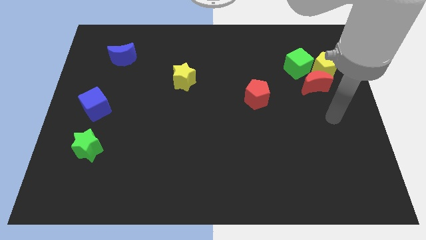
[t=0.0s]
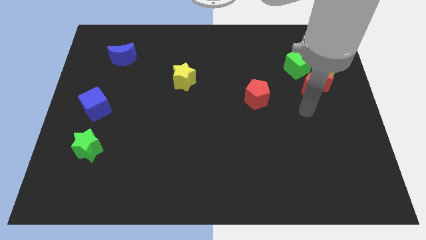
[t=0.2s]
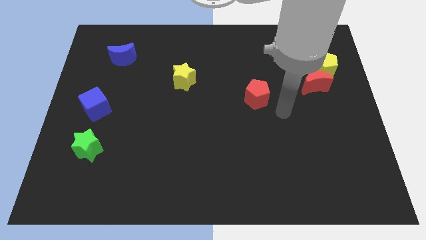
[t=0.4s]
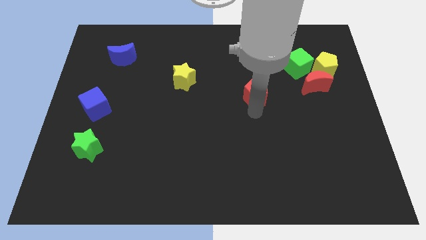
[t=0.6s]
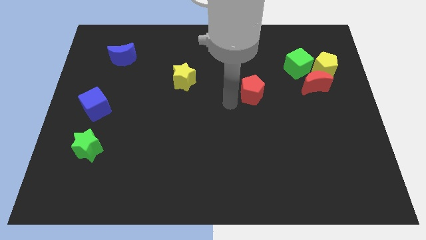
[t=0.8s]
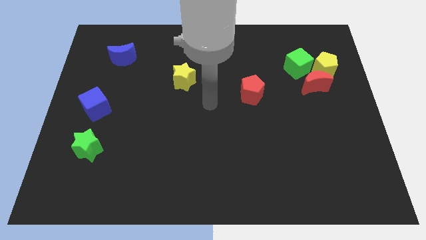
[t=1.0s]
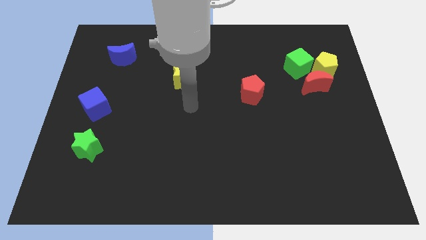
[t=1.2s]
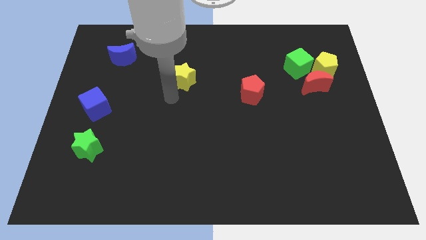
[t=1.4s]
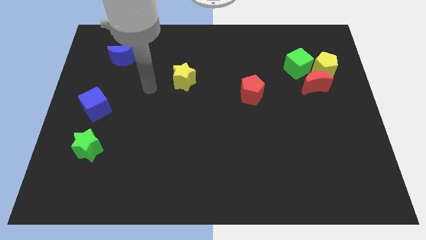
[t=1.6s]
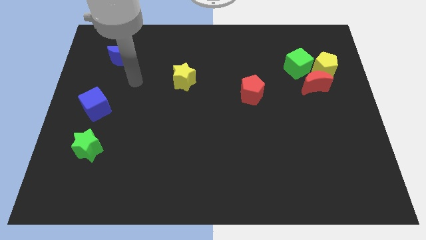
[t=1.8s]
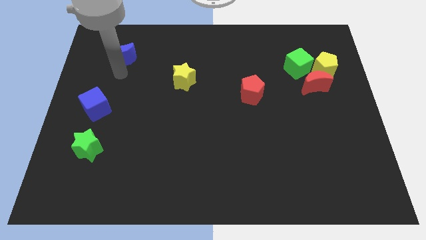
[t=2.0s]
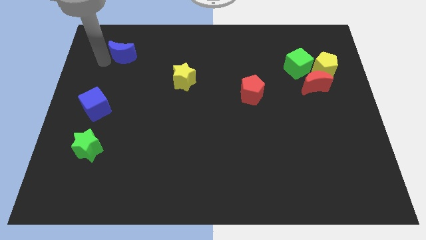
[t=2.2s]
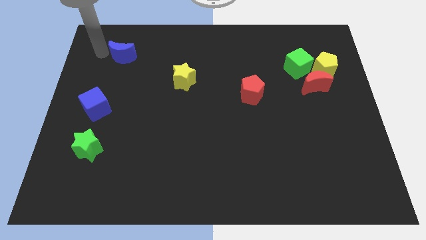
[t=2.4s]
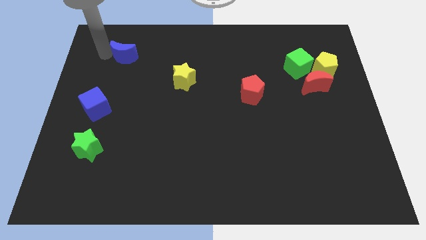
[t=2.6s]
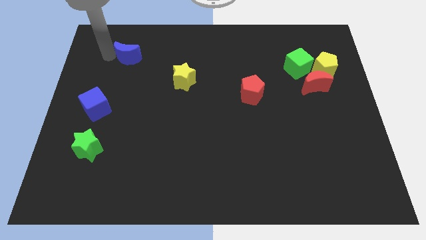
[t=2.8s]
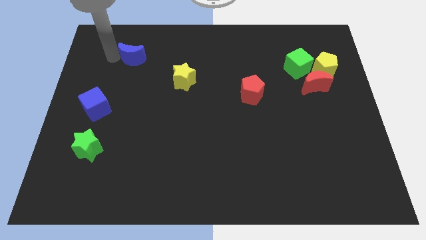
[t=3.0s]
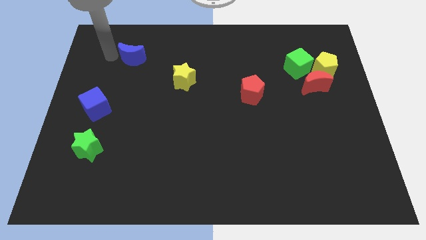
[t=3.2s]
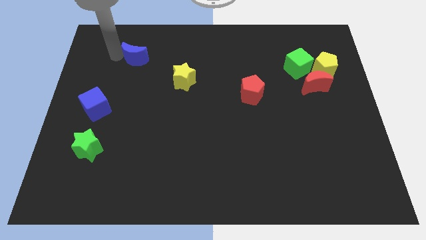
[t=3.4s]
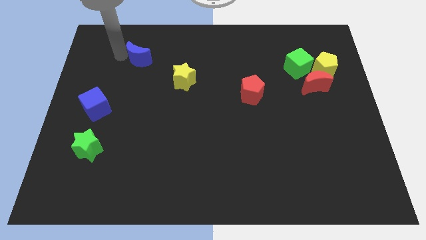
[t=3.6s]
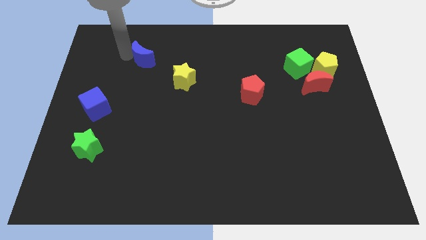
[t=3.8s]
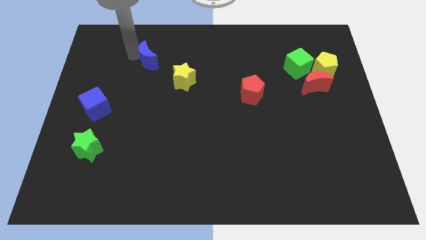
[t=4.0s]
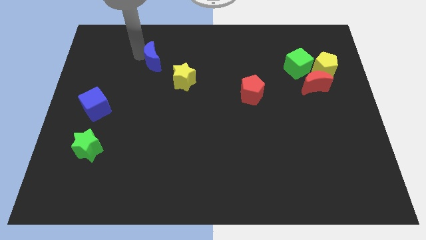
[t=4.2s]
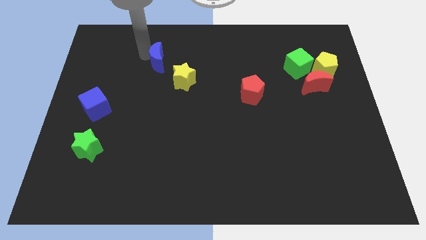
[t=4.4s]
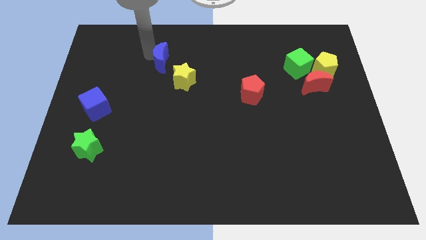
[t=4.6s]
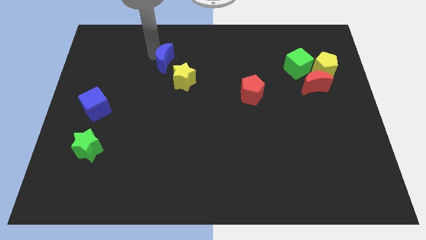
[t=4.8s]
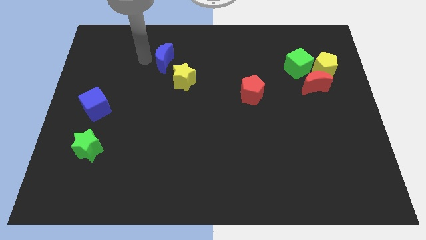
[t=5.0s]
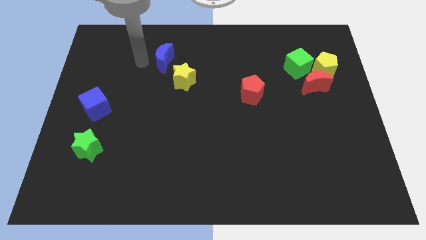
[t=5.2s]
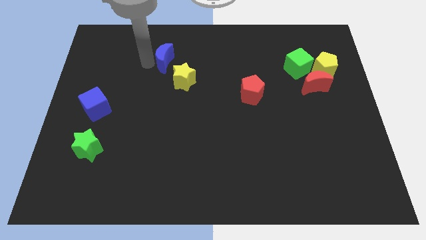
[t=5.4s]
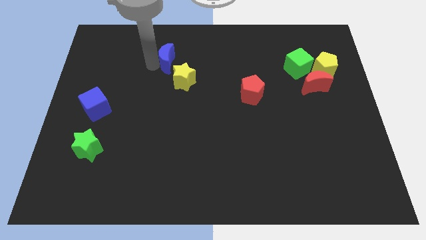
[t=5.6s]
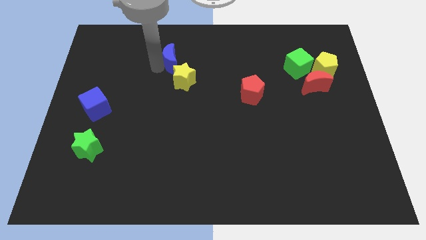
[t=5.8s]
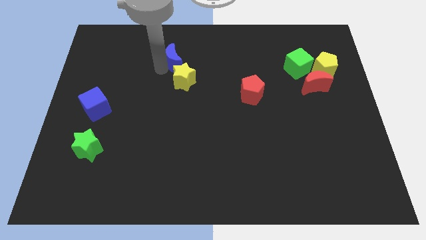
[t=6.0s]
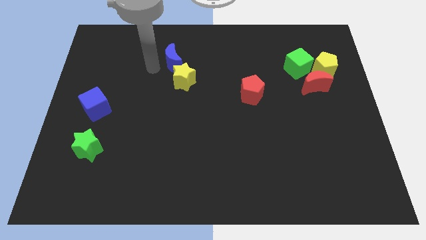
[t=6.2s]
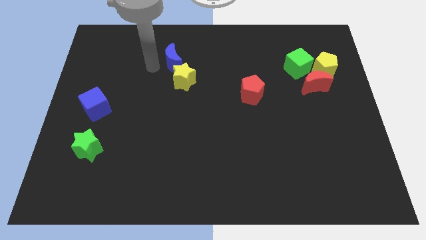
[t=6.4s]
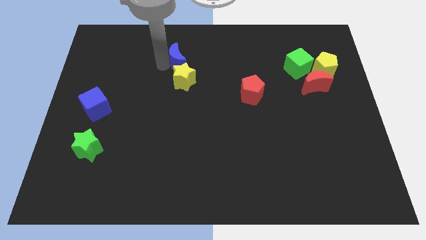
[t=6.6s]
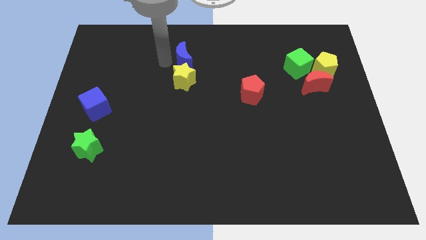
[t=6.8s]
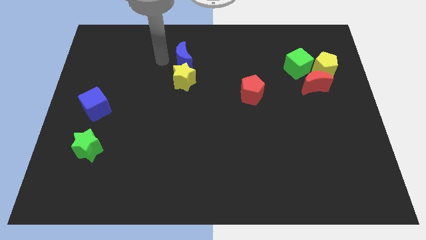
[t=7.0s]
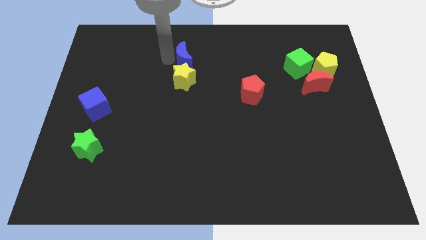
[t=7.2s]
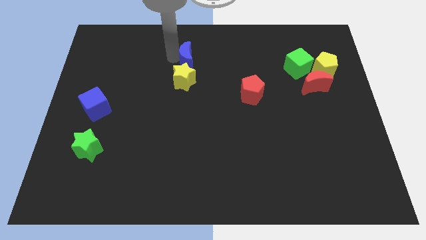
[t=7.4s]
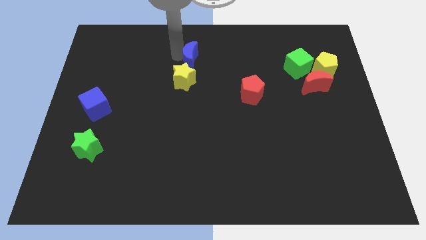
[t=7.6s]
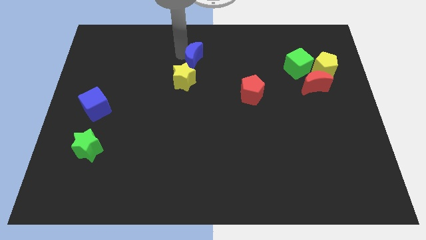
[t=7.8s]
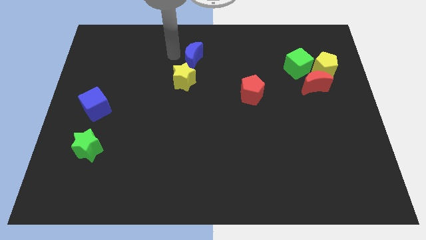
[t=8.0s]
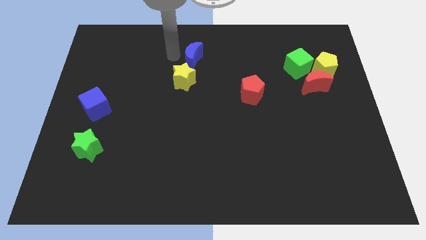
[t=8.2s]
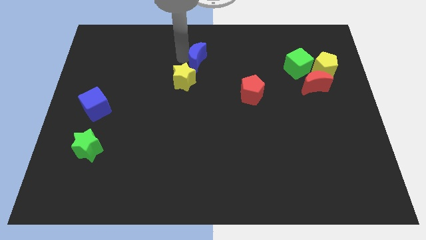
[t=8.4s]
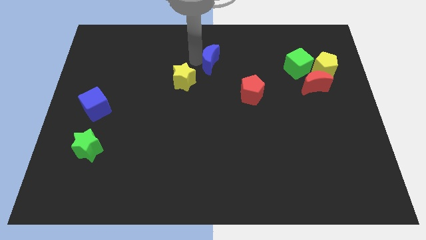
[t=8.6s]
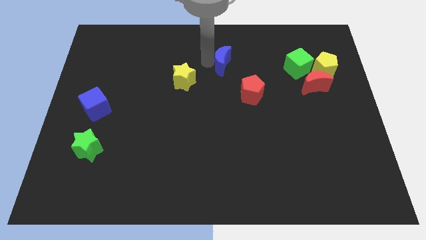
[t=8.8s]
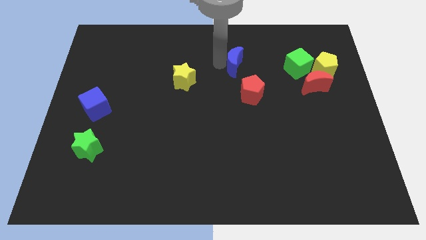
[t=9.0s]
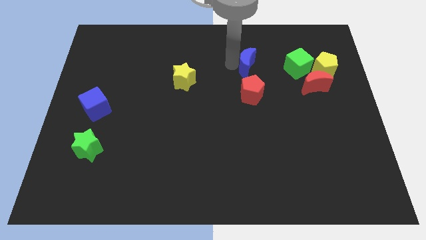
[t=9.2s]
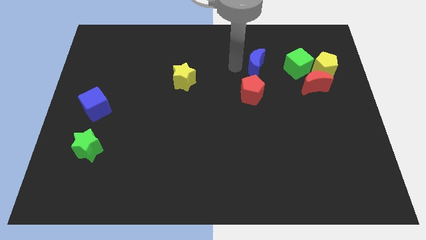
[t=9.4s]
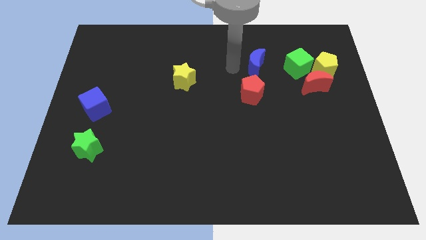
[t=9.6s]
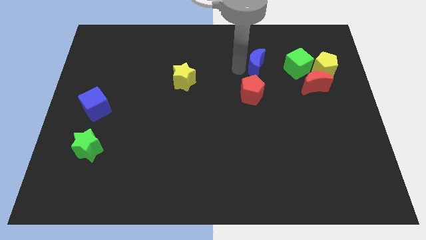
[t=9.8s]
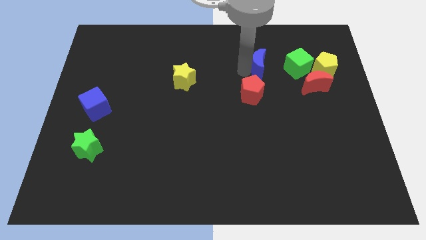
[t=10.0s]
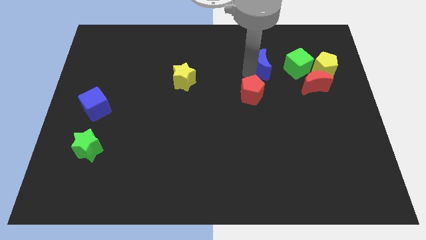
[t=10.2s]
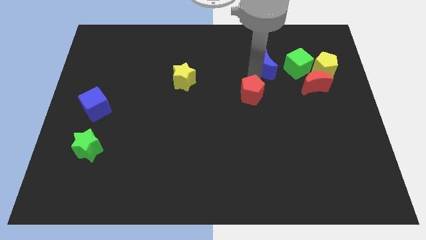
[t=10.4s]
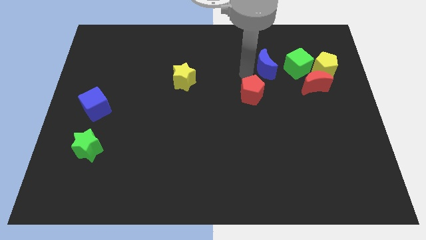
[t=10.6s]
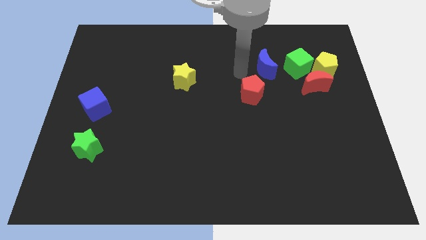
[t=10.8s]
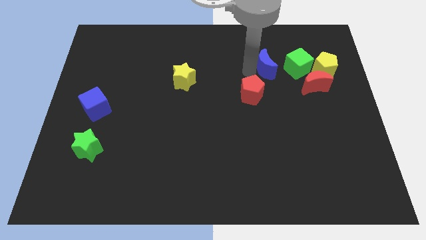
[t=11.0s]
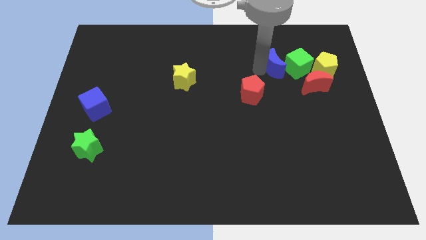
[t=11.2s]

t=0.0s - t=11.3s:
put the blue moon next to the green cube

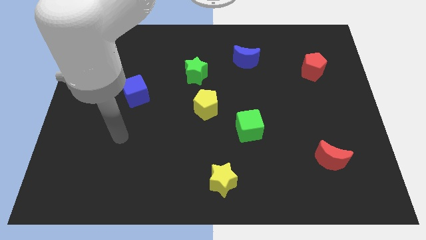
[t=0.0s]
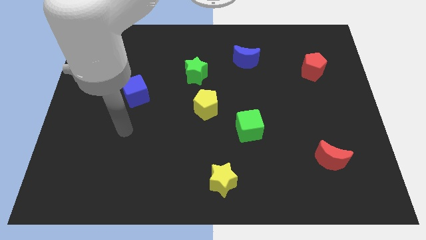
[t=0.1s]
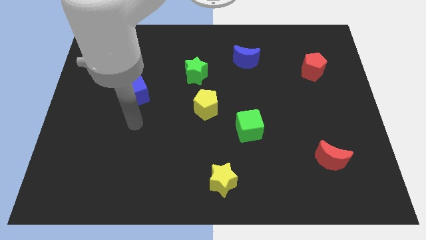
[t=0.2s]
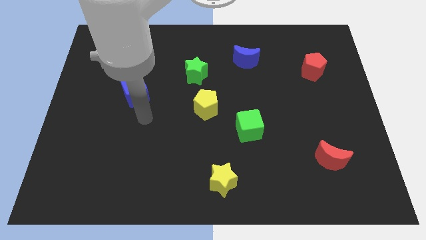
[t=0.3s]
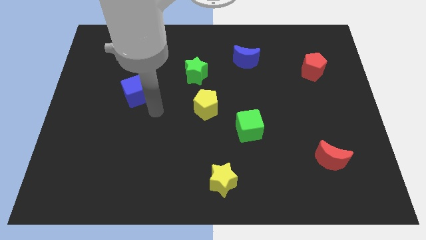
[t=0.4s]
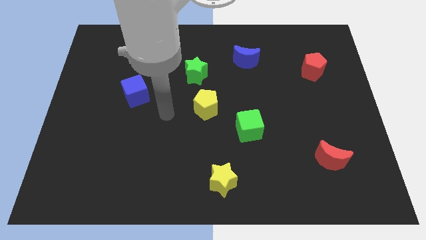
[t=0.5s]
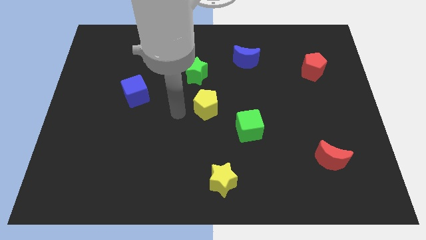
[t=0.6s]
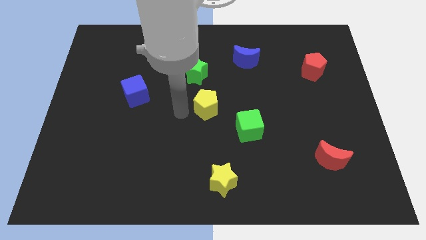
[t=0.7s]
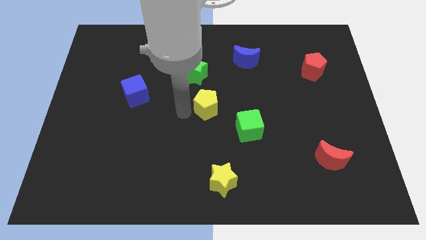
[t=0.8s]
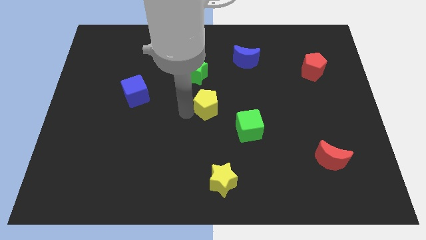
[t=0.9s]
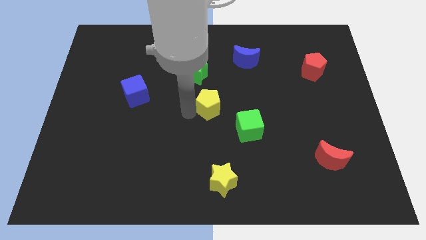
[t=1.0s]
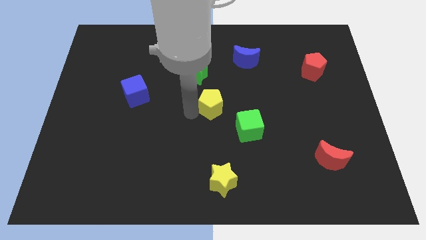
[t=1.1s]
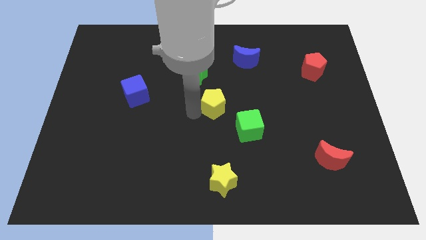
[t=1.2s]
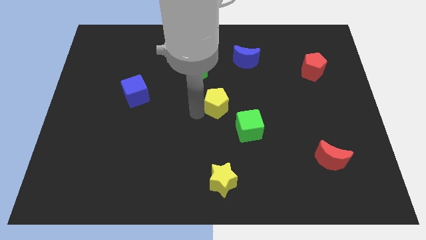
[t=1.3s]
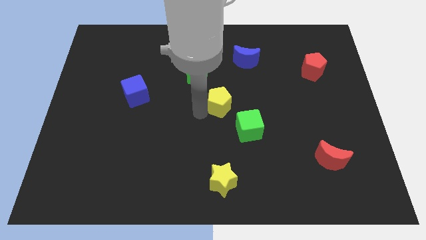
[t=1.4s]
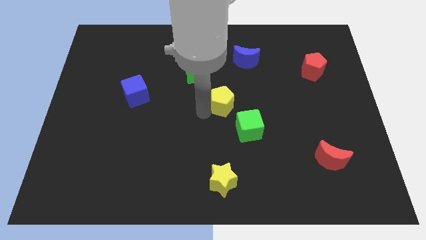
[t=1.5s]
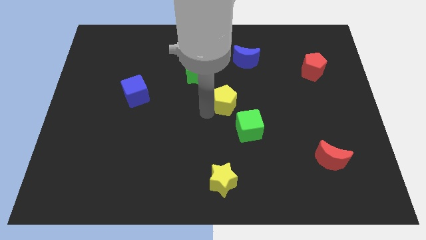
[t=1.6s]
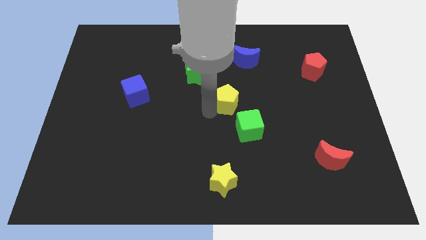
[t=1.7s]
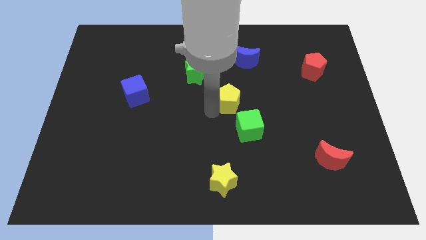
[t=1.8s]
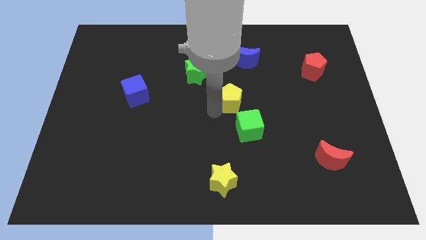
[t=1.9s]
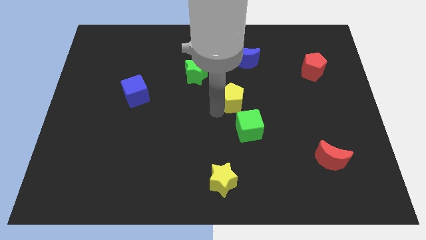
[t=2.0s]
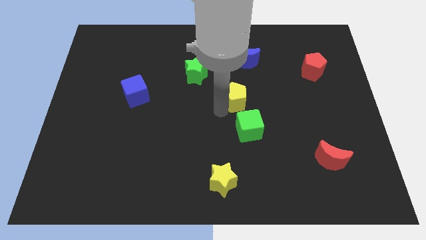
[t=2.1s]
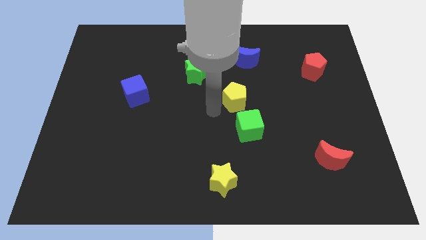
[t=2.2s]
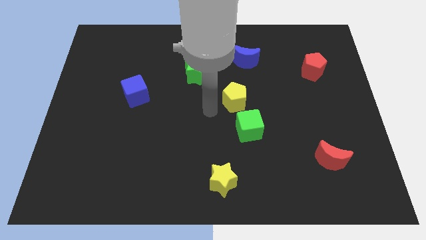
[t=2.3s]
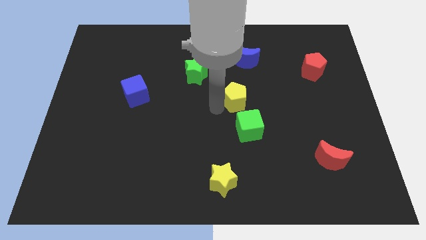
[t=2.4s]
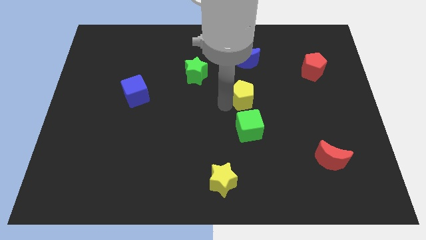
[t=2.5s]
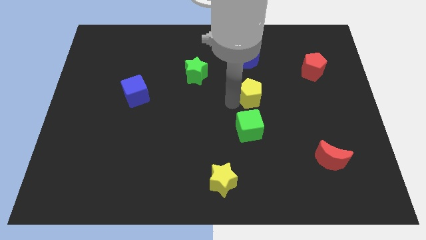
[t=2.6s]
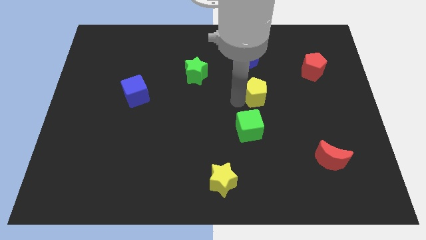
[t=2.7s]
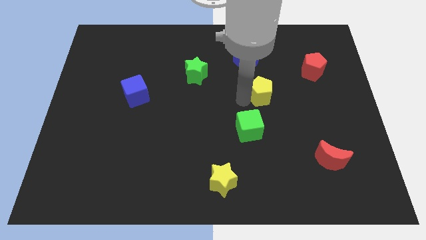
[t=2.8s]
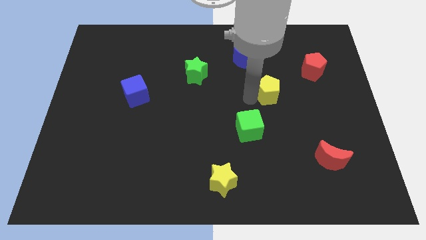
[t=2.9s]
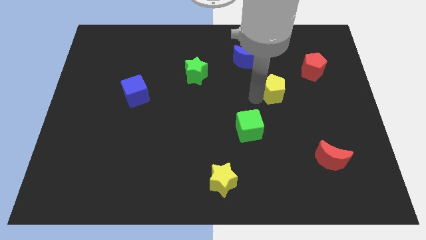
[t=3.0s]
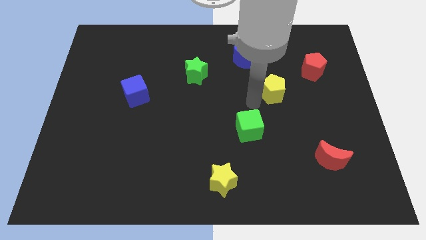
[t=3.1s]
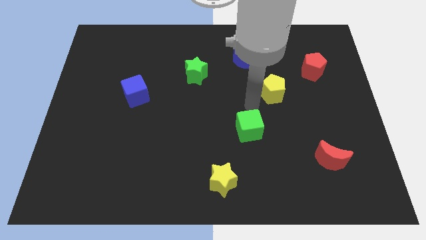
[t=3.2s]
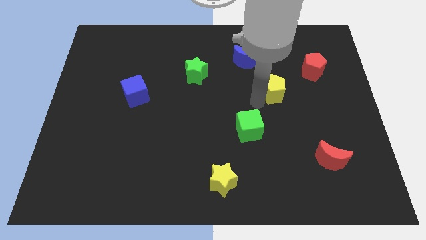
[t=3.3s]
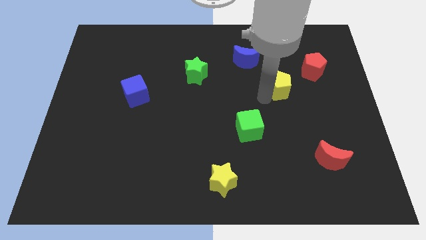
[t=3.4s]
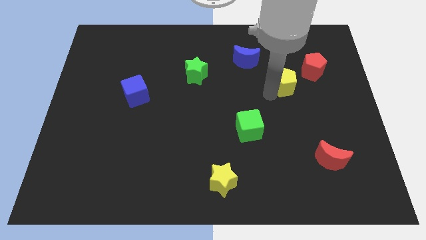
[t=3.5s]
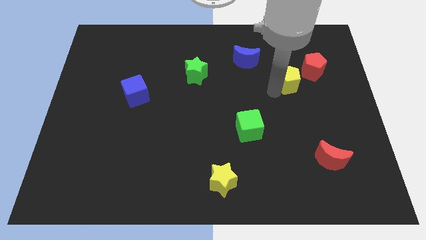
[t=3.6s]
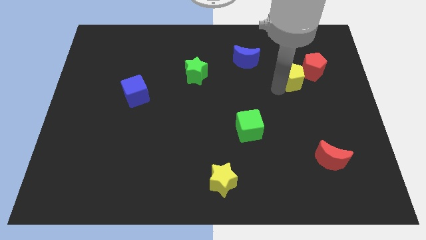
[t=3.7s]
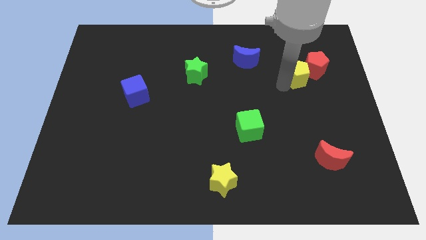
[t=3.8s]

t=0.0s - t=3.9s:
push the yellow pentagon next to the red pentagon
